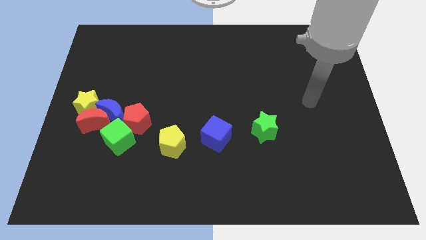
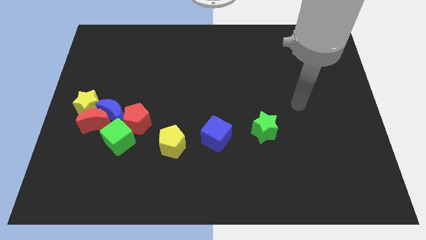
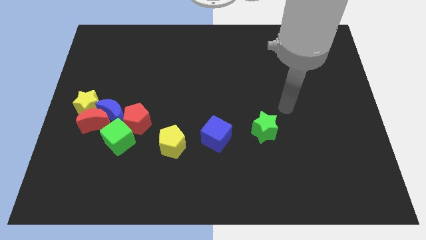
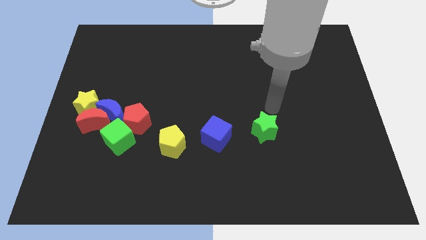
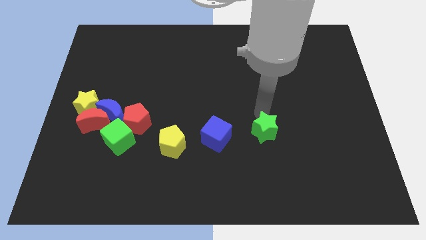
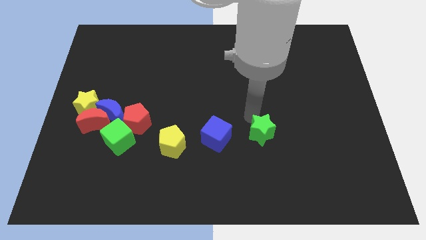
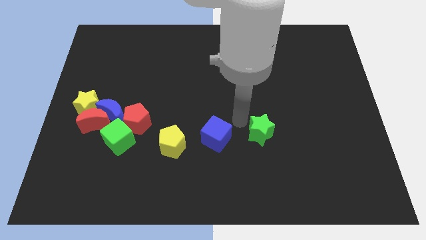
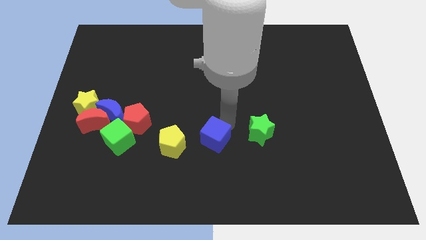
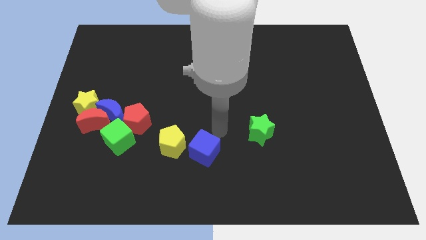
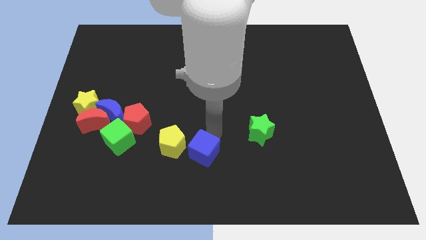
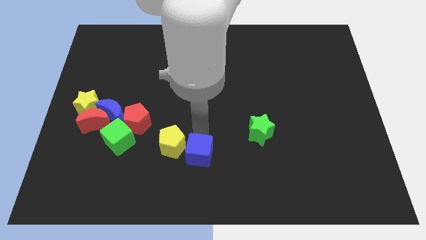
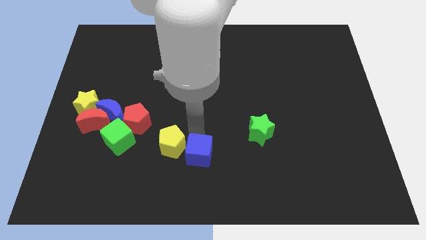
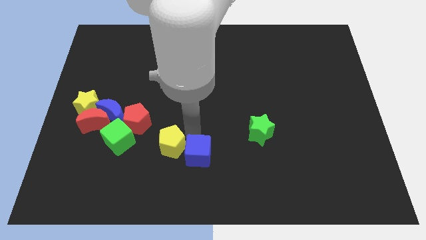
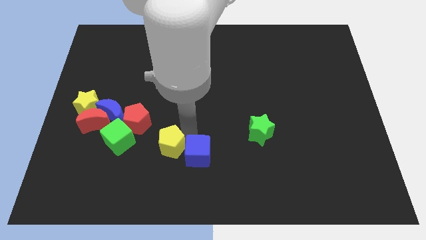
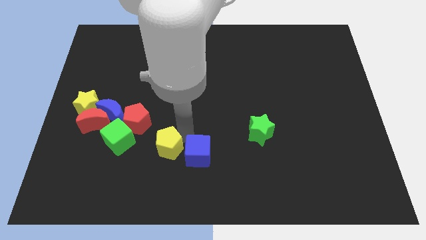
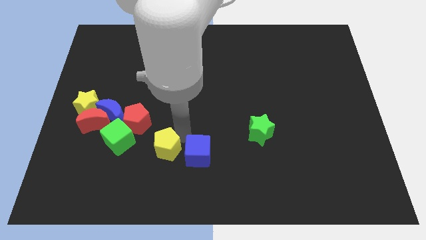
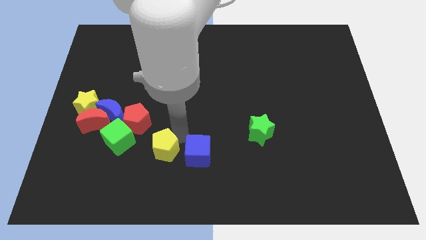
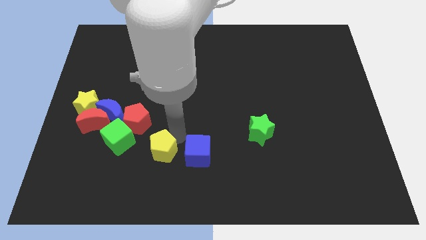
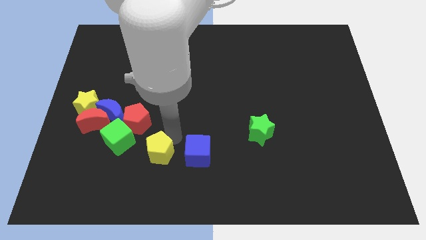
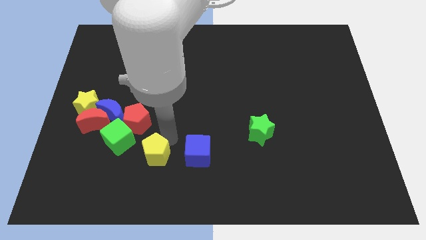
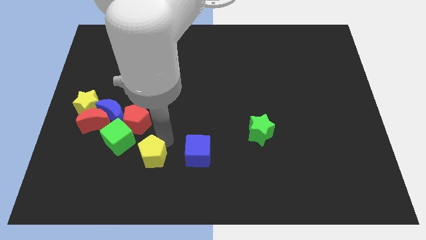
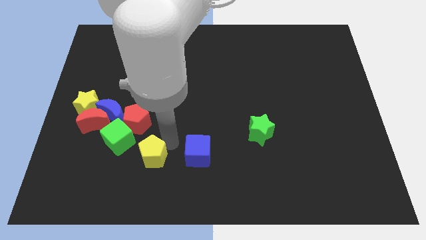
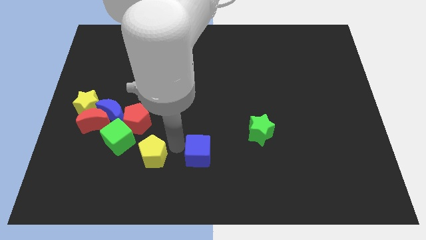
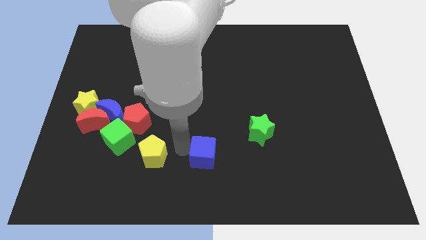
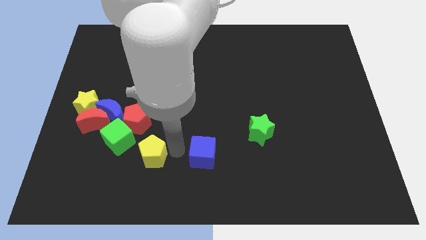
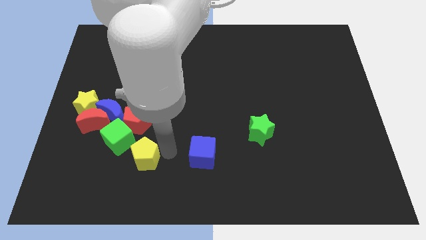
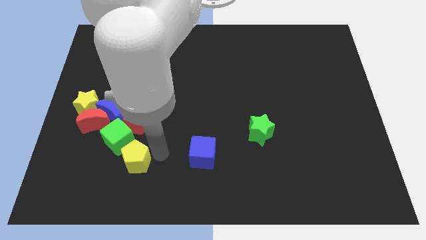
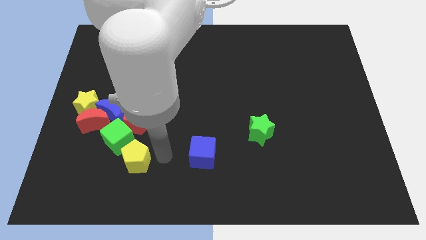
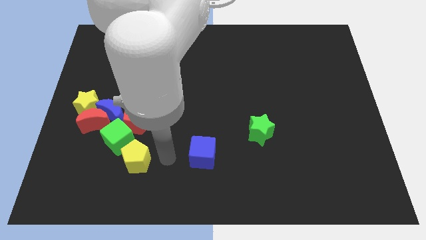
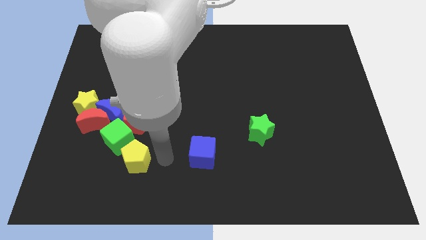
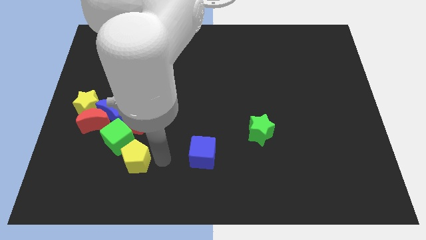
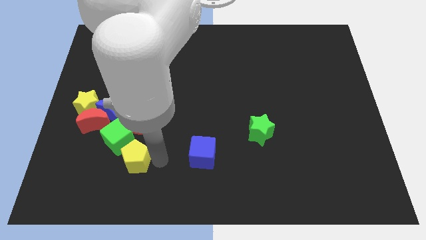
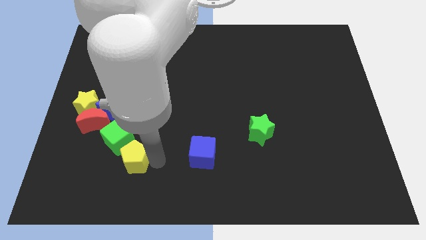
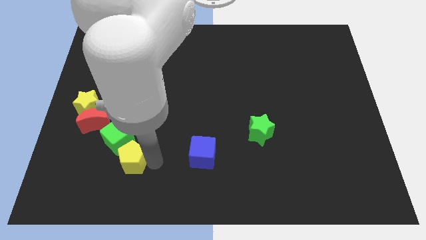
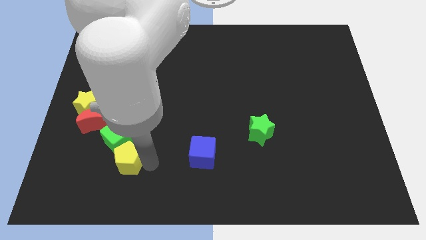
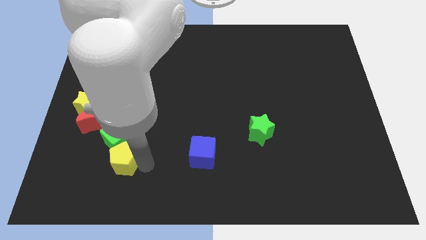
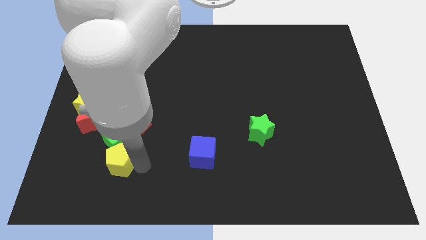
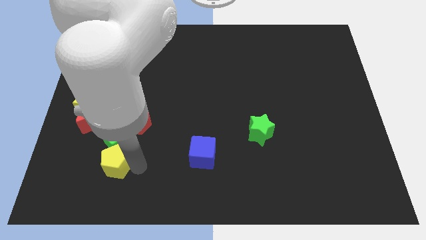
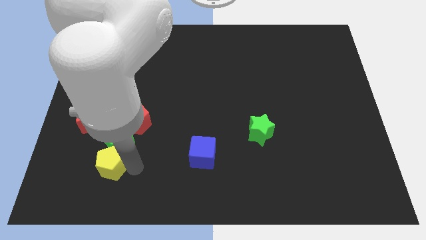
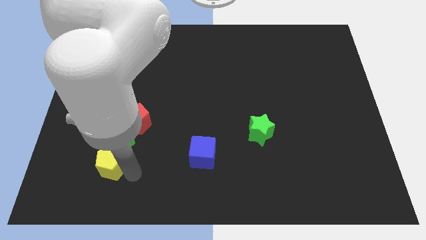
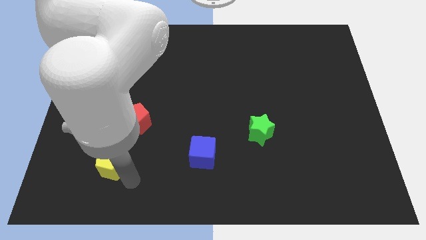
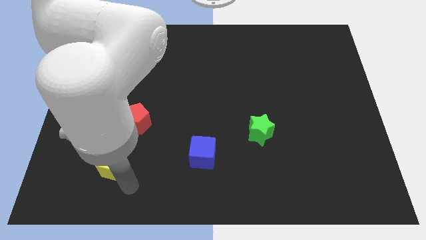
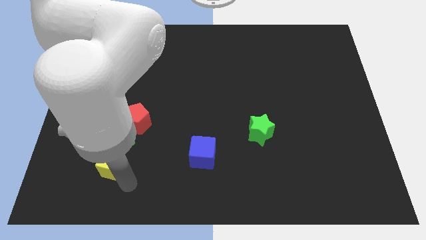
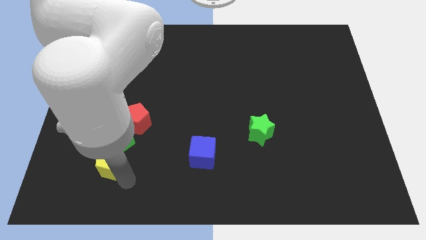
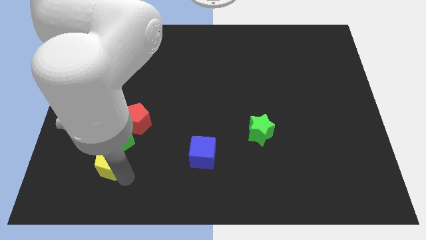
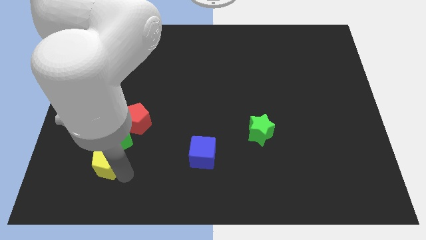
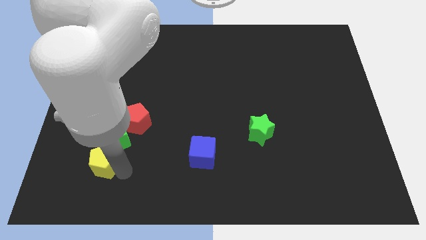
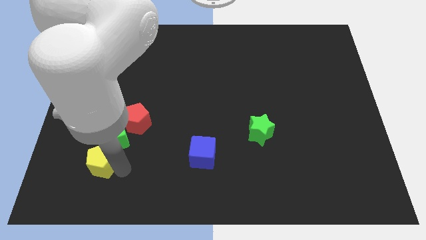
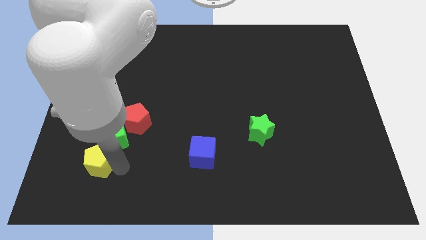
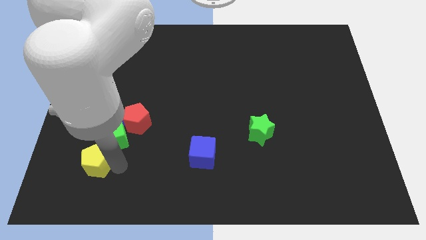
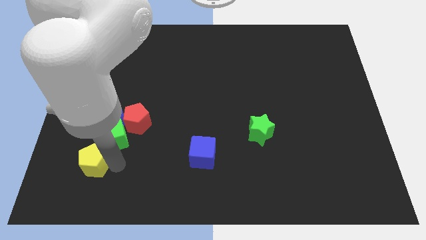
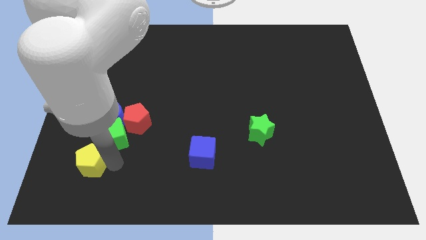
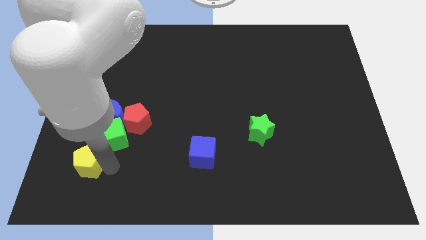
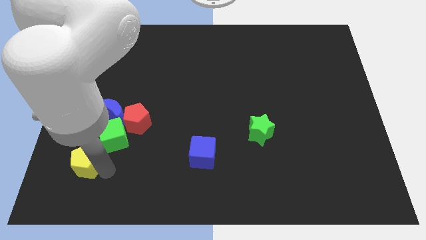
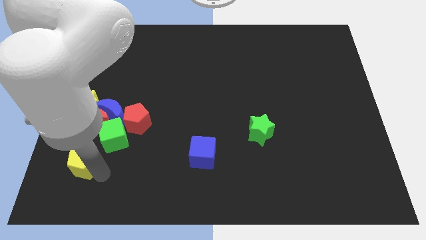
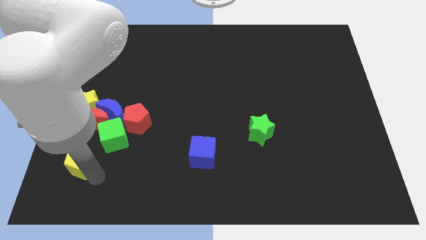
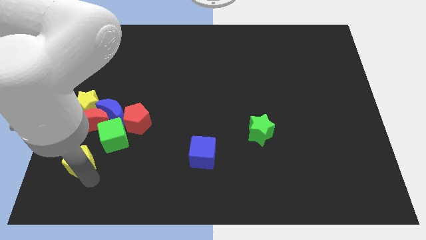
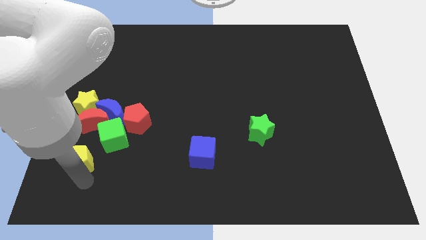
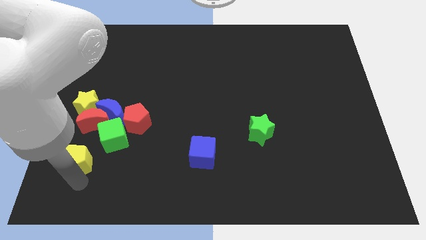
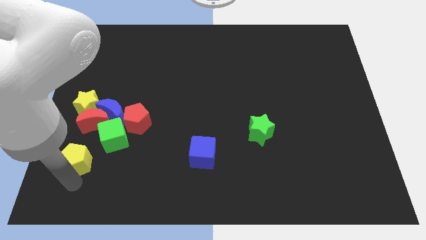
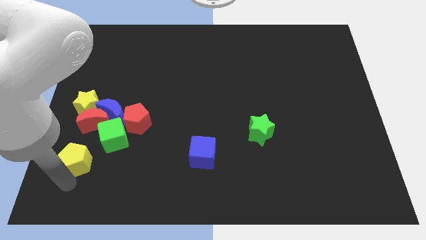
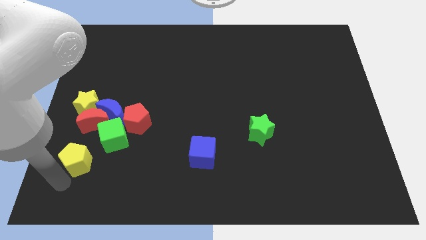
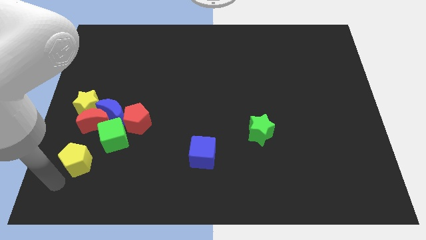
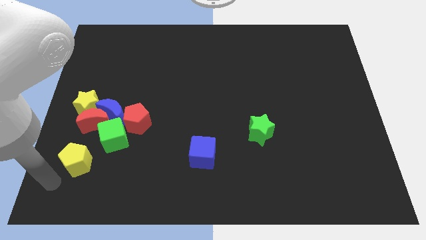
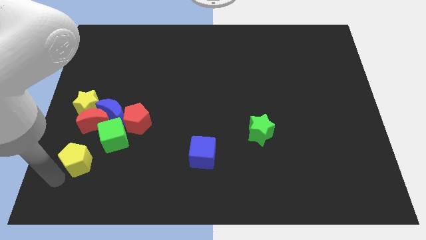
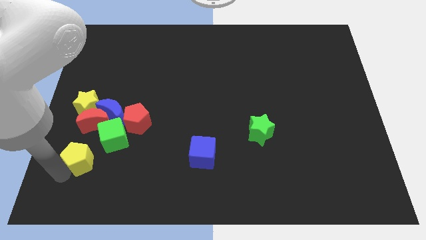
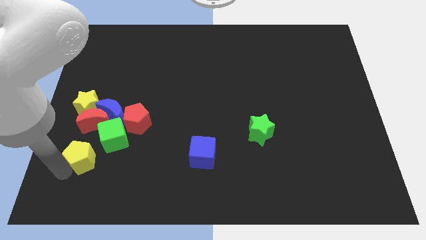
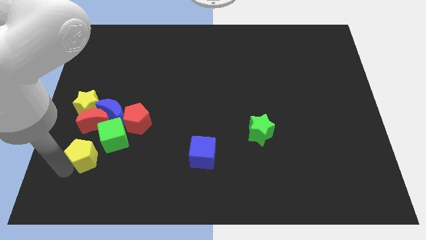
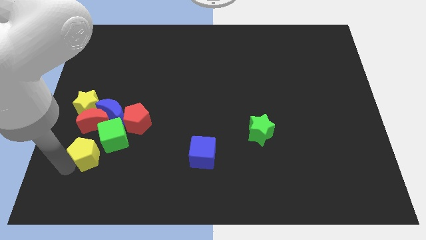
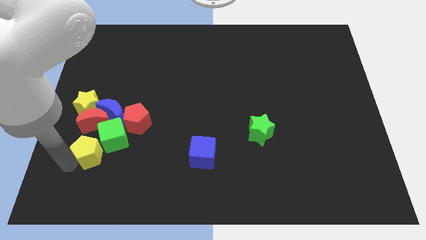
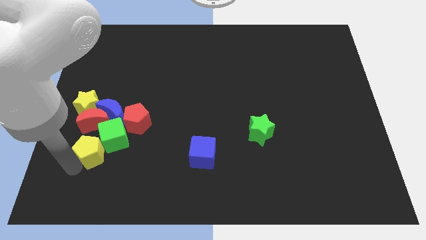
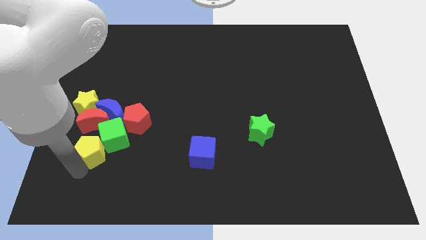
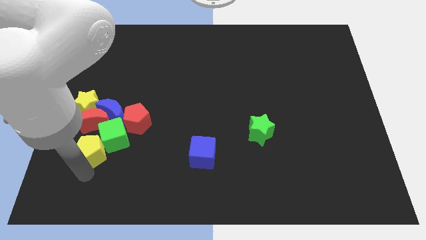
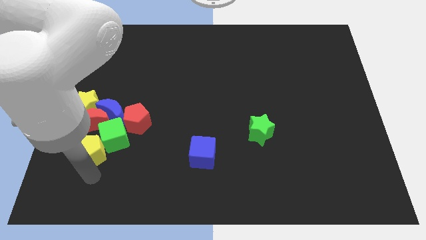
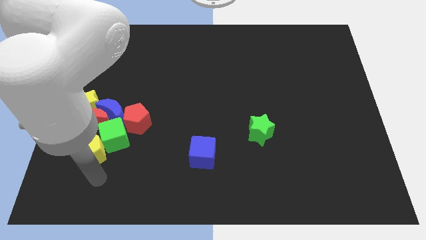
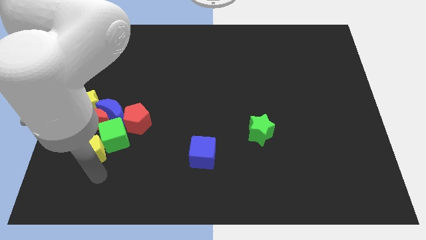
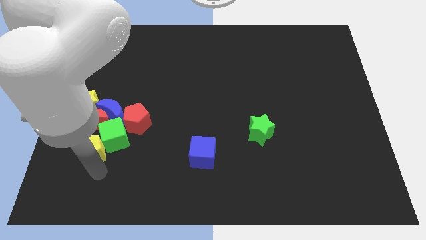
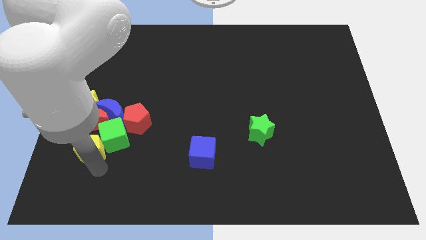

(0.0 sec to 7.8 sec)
put the yellow pentagon to the bottom left of the blue moon
